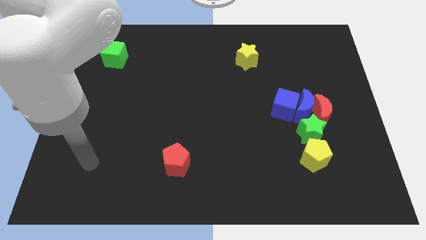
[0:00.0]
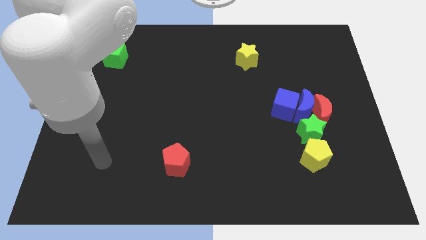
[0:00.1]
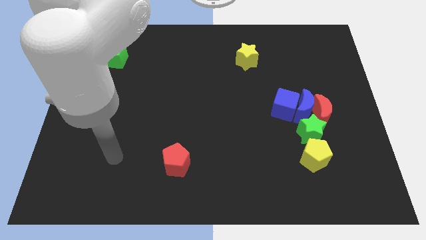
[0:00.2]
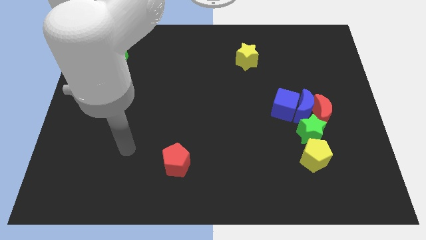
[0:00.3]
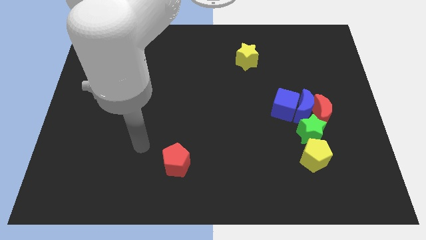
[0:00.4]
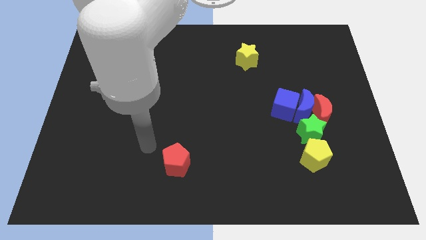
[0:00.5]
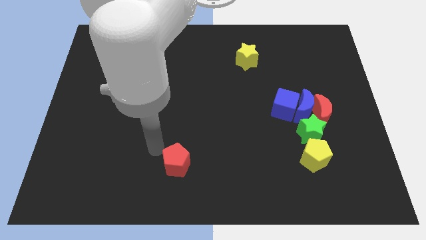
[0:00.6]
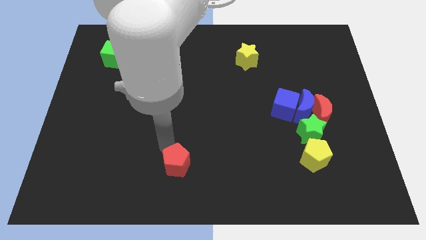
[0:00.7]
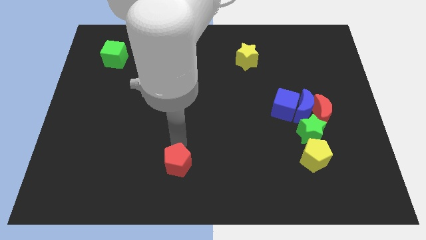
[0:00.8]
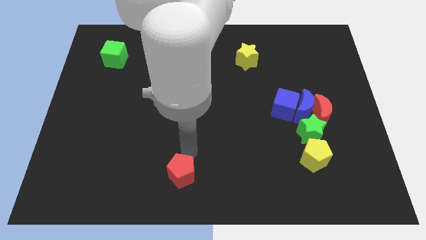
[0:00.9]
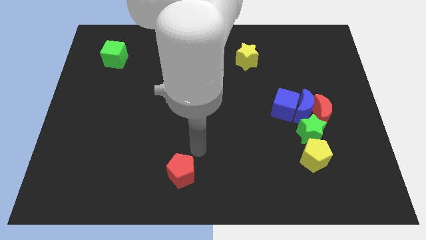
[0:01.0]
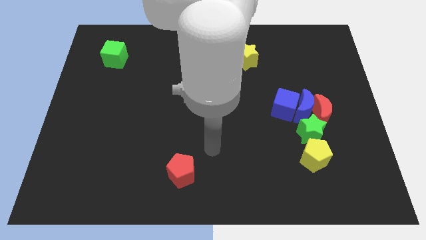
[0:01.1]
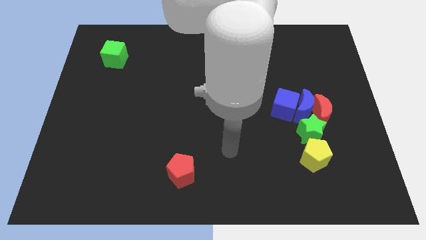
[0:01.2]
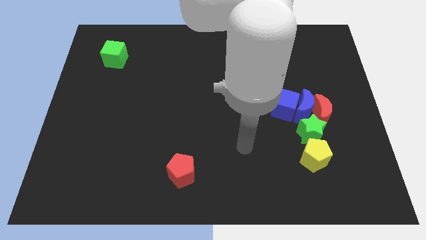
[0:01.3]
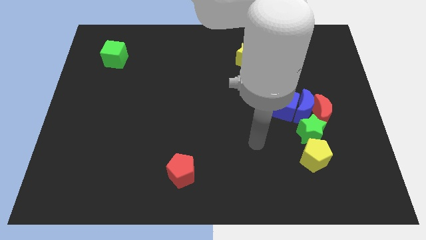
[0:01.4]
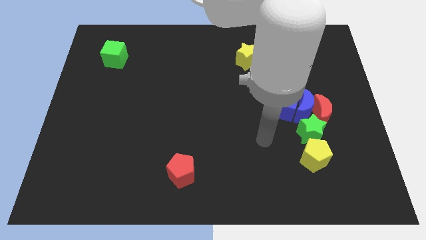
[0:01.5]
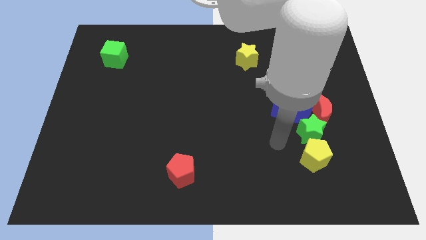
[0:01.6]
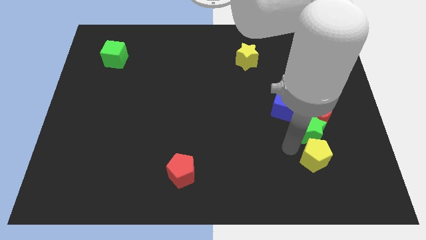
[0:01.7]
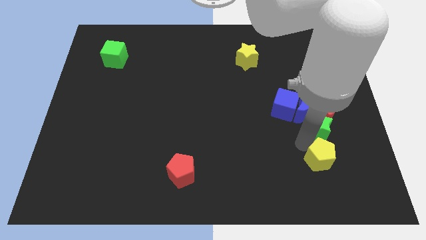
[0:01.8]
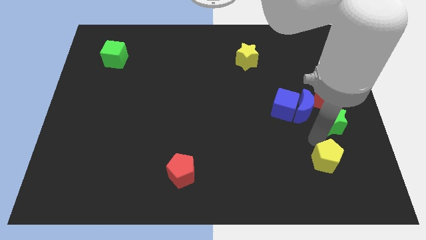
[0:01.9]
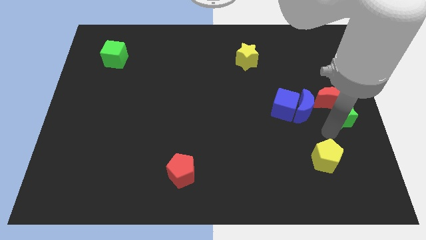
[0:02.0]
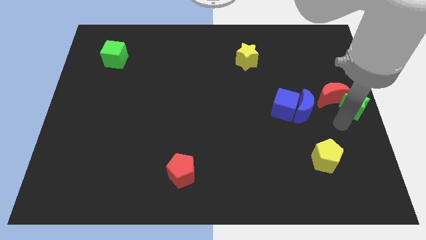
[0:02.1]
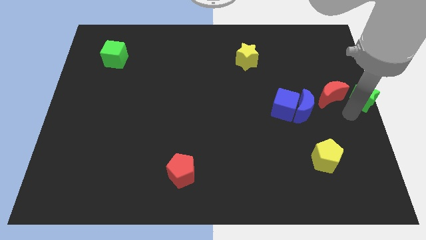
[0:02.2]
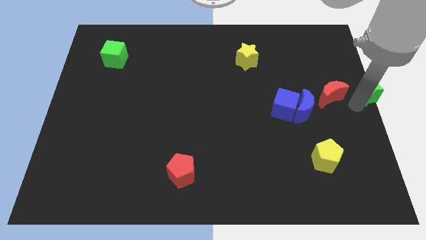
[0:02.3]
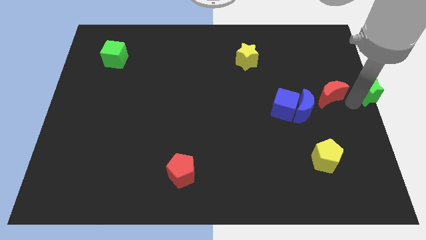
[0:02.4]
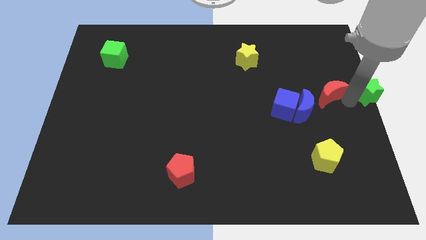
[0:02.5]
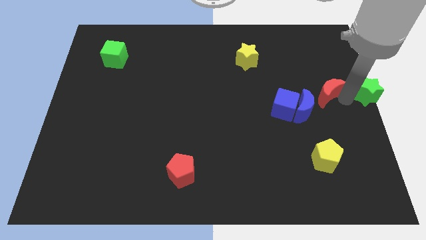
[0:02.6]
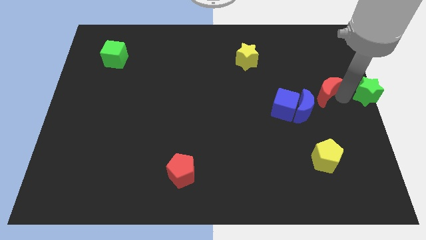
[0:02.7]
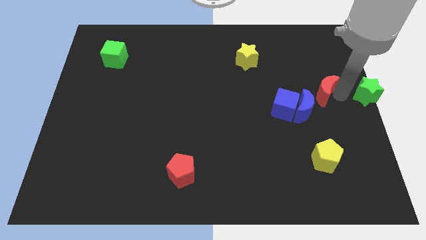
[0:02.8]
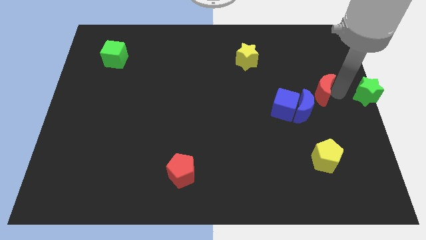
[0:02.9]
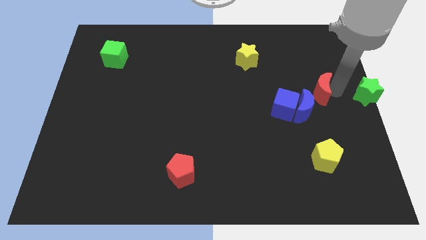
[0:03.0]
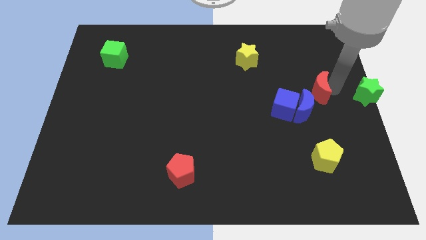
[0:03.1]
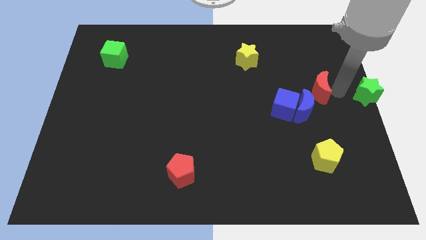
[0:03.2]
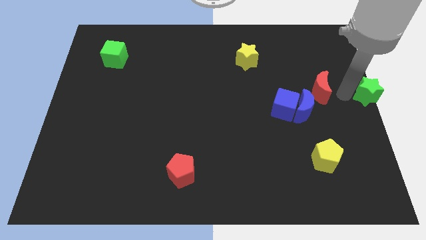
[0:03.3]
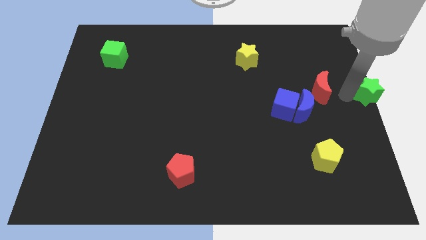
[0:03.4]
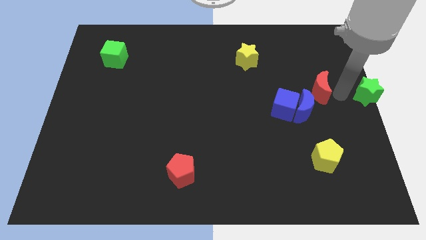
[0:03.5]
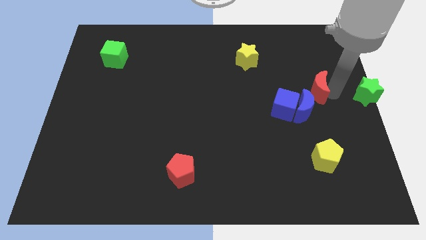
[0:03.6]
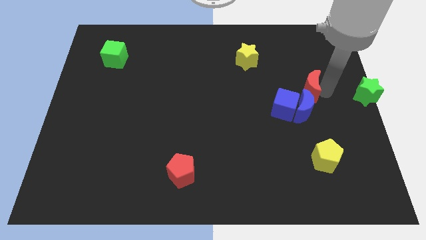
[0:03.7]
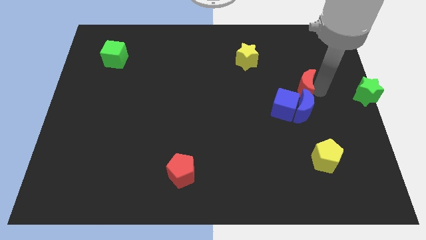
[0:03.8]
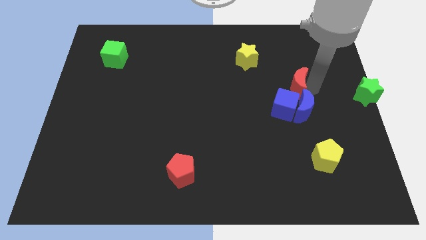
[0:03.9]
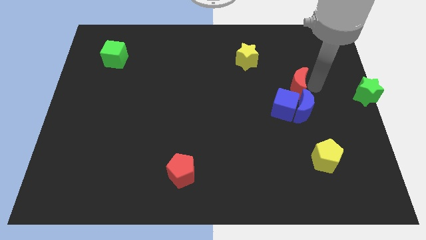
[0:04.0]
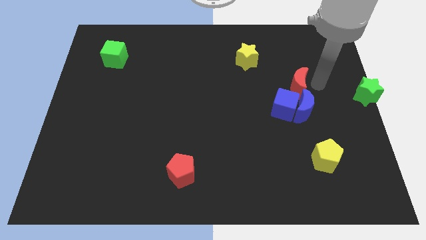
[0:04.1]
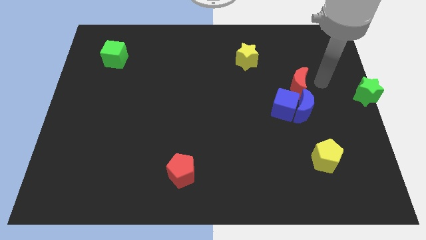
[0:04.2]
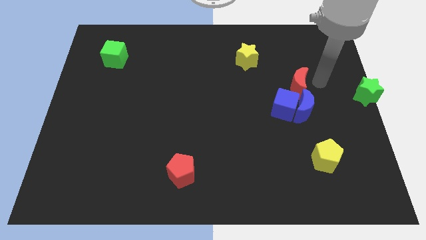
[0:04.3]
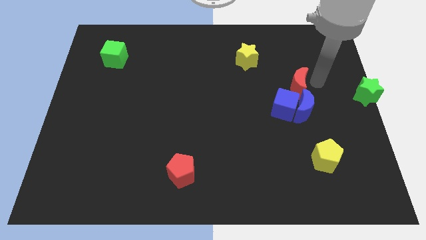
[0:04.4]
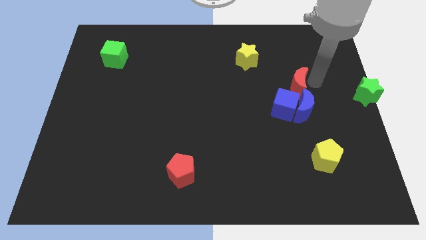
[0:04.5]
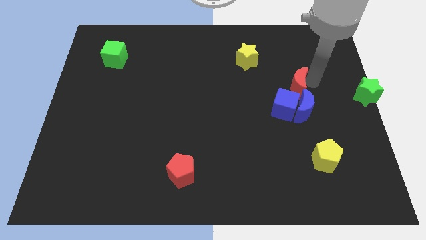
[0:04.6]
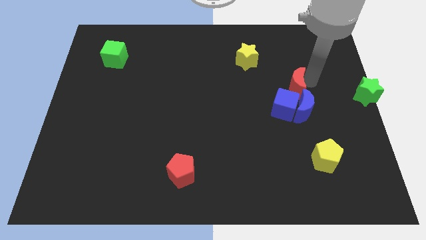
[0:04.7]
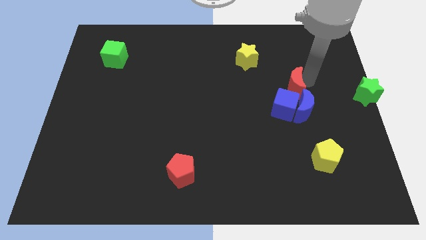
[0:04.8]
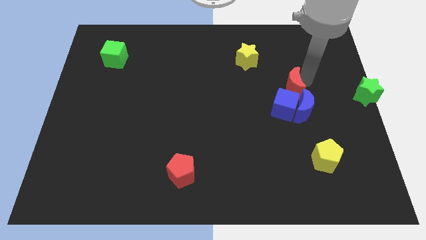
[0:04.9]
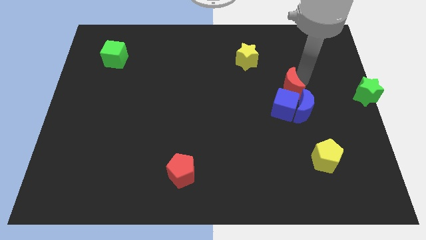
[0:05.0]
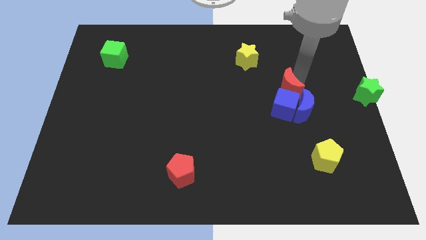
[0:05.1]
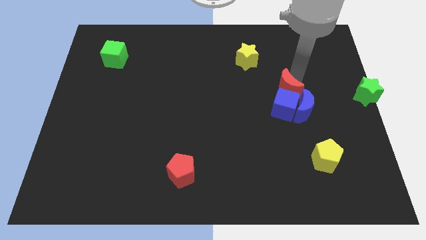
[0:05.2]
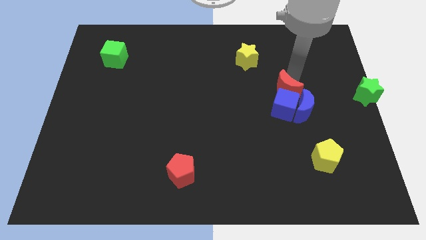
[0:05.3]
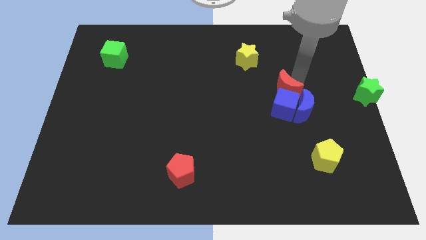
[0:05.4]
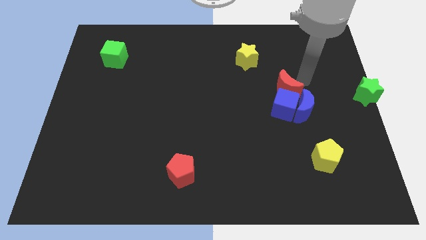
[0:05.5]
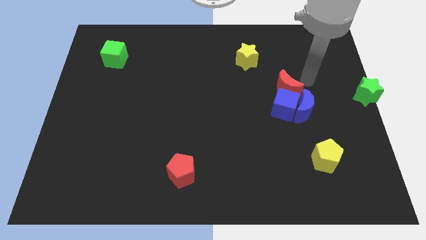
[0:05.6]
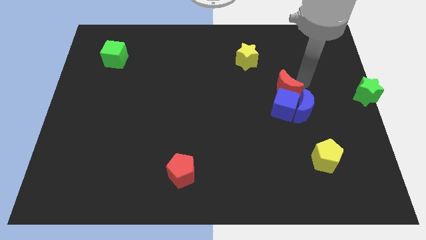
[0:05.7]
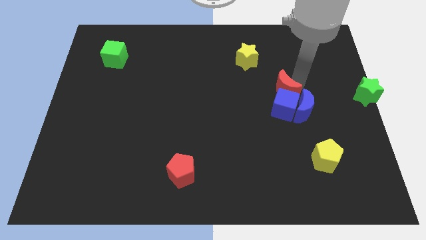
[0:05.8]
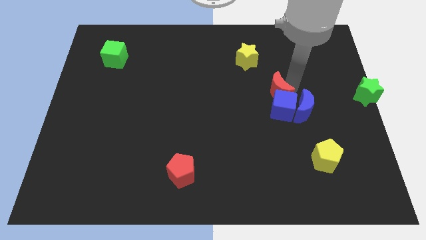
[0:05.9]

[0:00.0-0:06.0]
slide the red moon left slightly

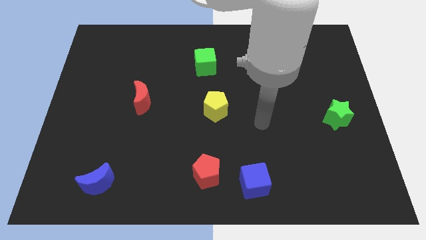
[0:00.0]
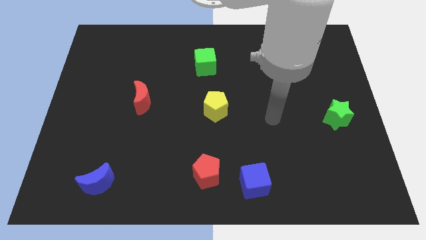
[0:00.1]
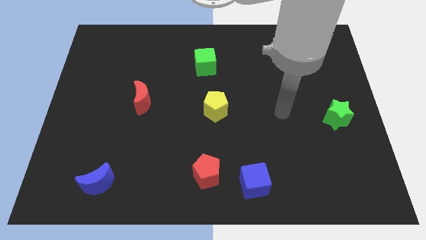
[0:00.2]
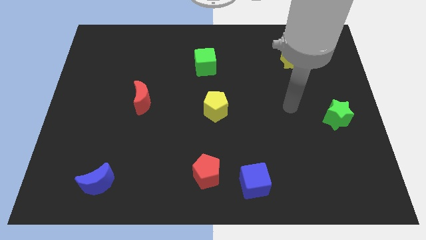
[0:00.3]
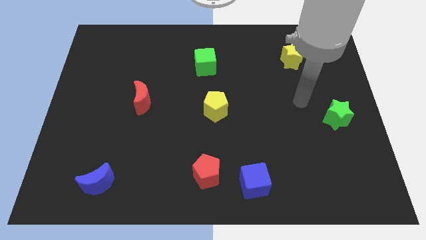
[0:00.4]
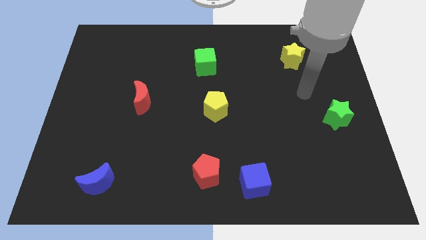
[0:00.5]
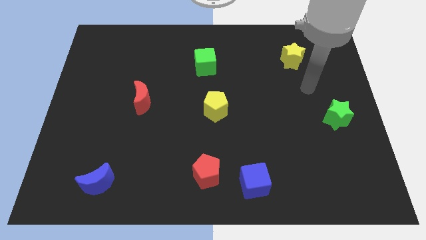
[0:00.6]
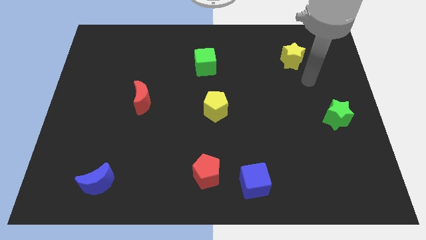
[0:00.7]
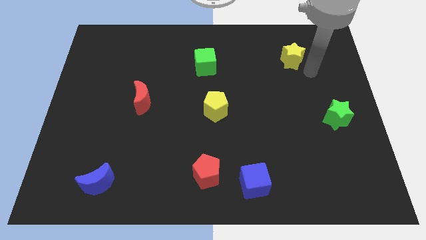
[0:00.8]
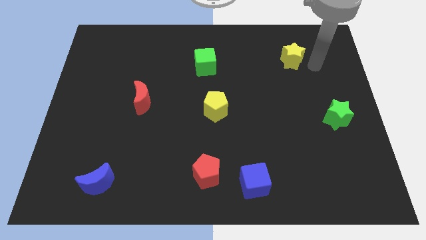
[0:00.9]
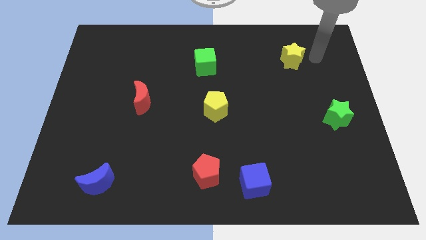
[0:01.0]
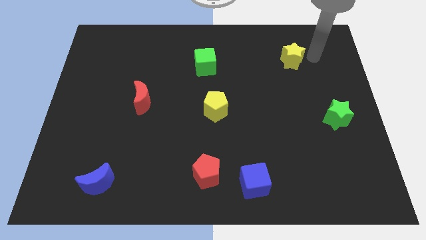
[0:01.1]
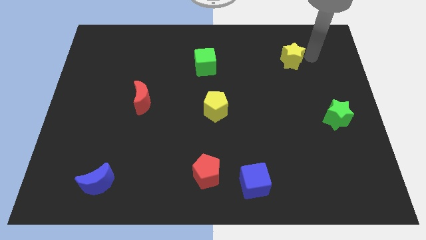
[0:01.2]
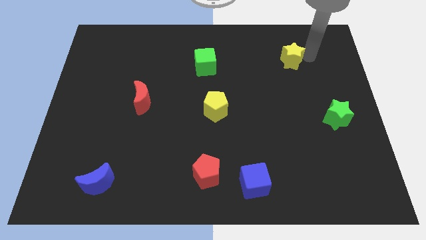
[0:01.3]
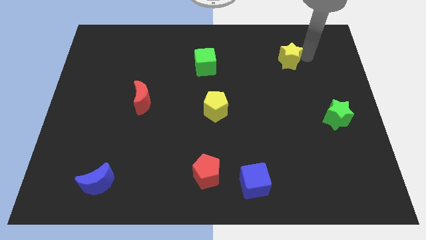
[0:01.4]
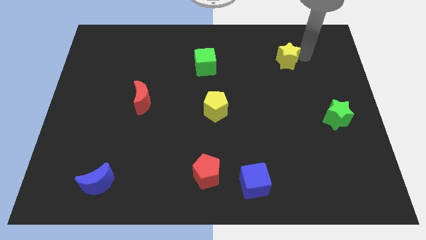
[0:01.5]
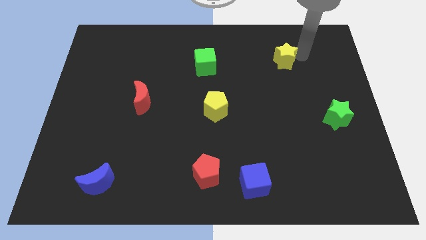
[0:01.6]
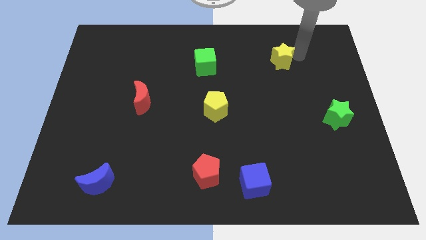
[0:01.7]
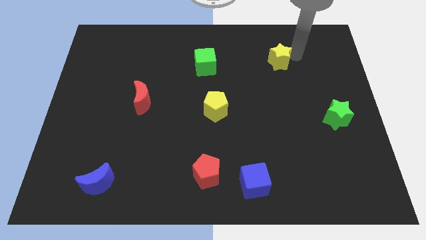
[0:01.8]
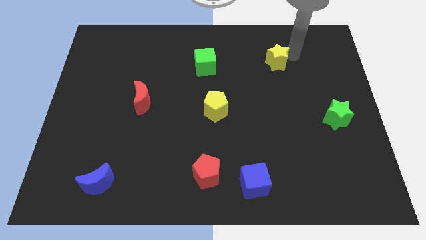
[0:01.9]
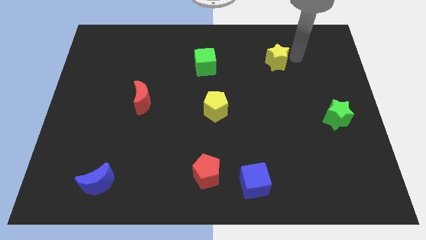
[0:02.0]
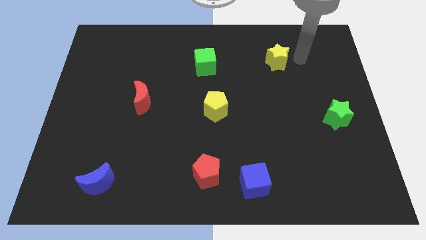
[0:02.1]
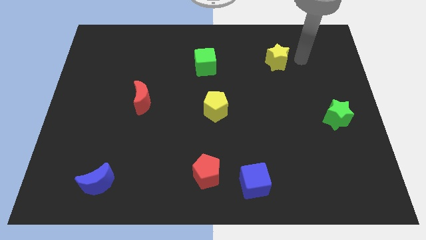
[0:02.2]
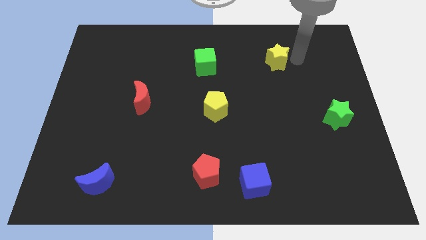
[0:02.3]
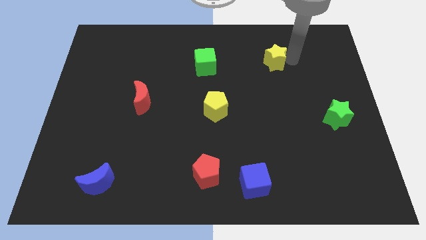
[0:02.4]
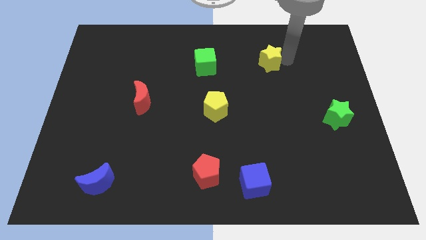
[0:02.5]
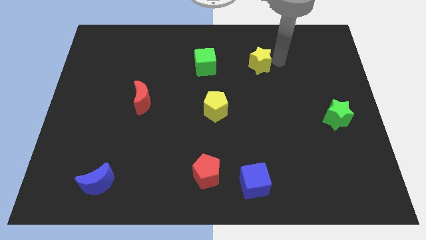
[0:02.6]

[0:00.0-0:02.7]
slightly push the yellow star to the left
